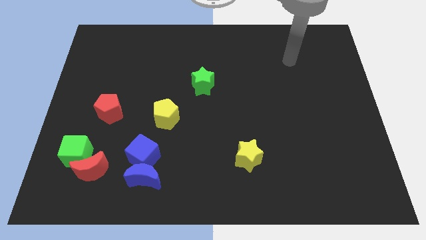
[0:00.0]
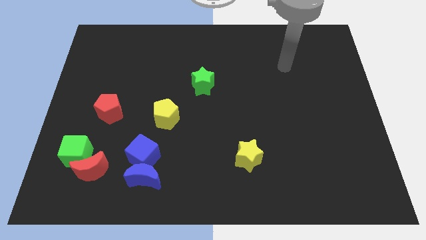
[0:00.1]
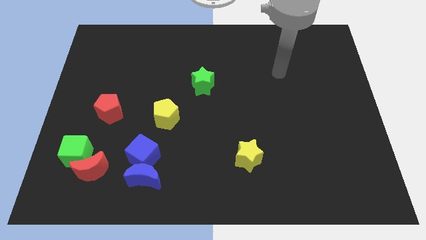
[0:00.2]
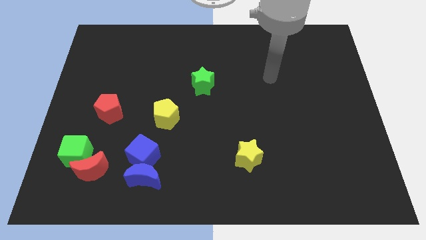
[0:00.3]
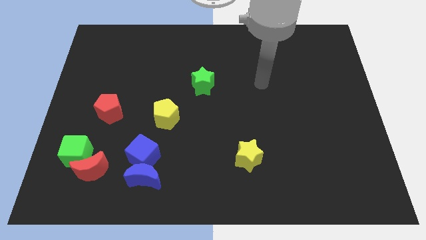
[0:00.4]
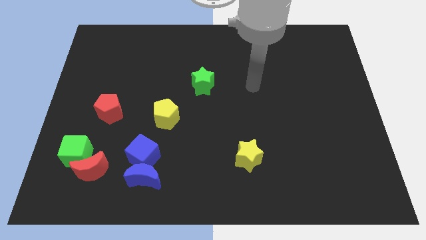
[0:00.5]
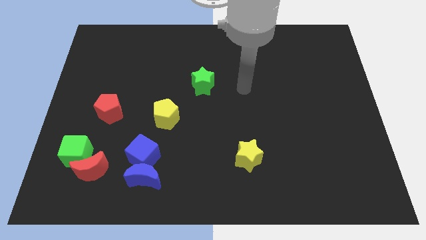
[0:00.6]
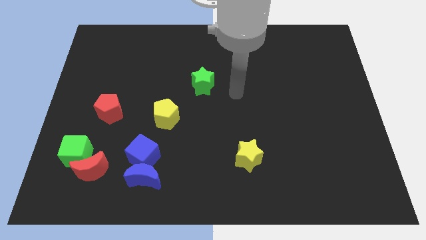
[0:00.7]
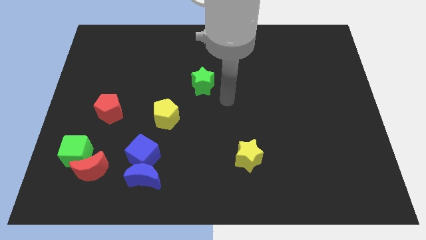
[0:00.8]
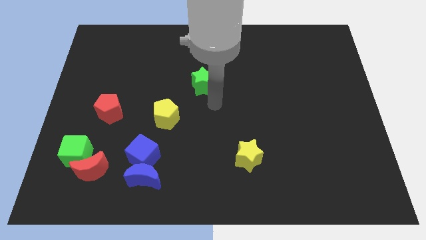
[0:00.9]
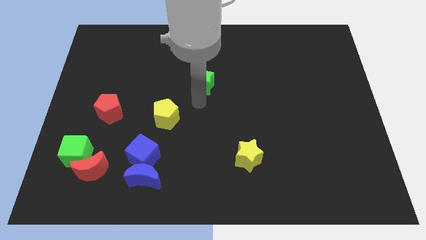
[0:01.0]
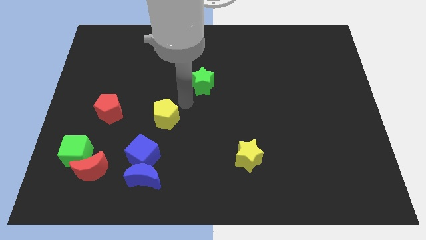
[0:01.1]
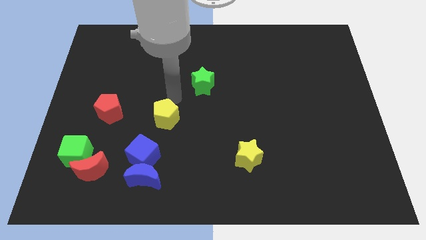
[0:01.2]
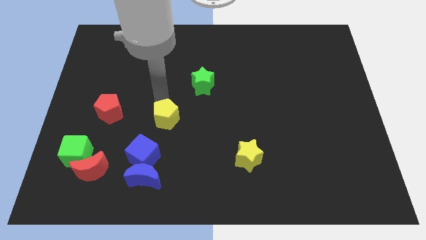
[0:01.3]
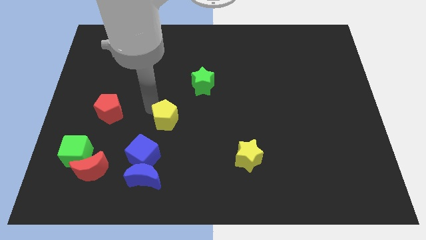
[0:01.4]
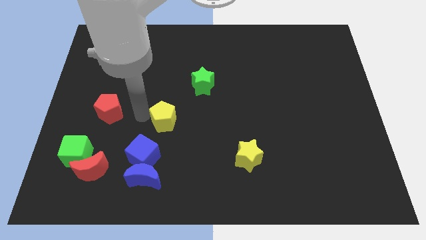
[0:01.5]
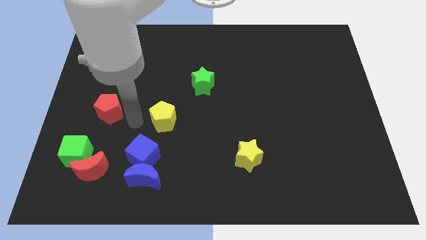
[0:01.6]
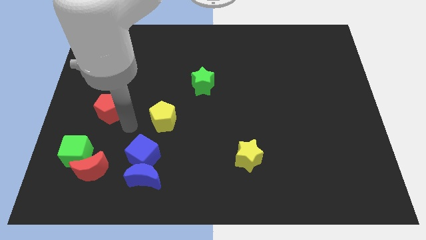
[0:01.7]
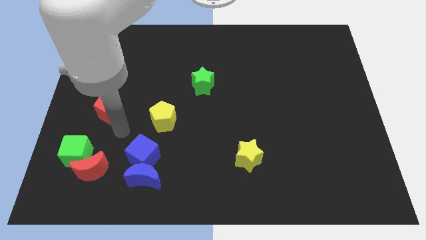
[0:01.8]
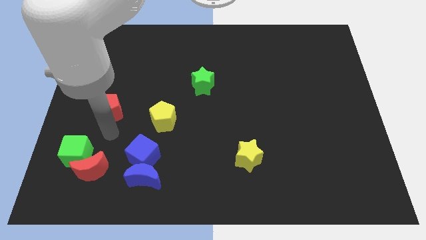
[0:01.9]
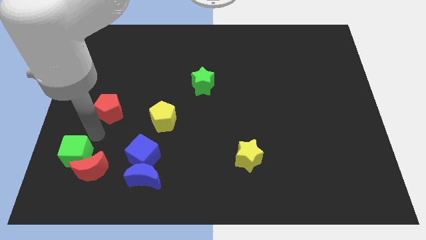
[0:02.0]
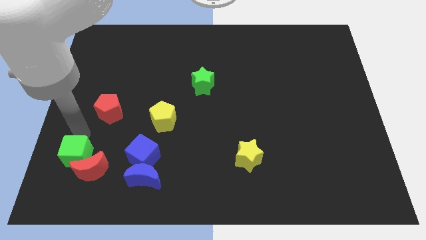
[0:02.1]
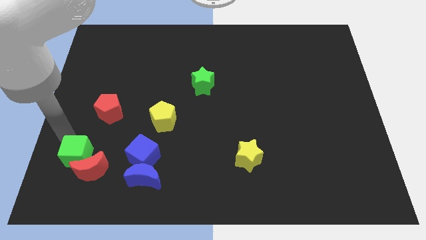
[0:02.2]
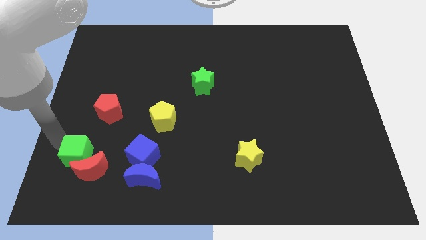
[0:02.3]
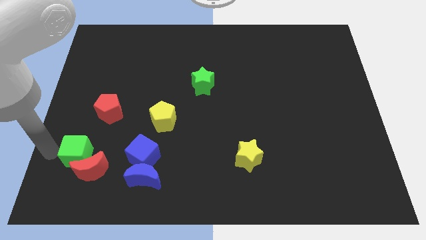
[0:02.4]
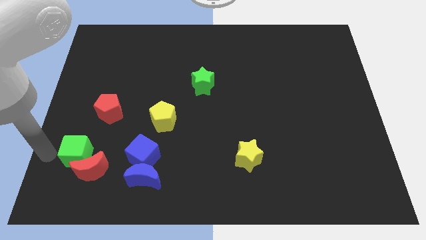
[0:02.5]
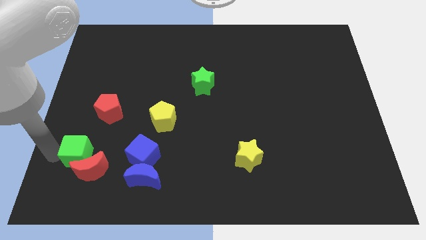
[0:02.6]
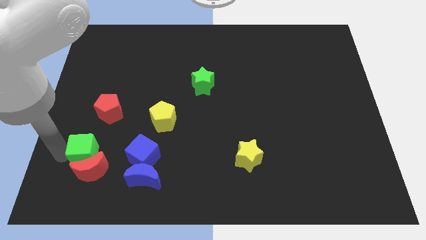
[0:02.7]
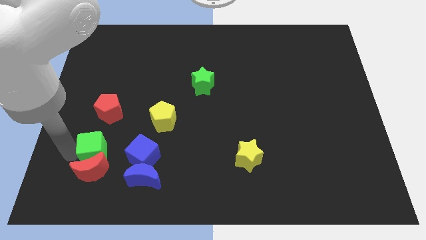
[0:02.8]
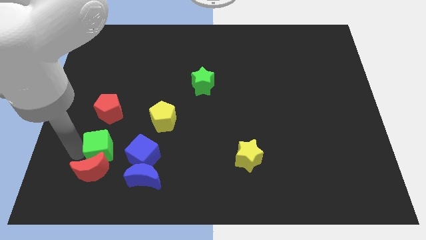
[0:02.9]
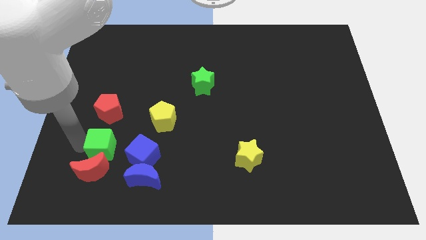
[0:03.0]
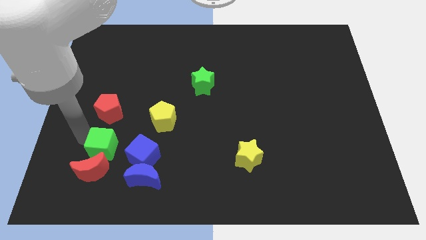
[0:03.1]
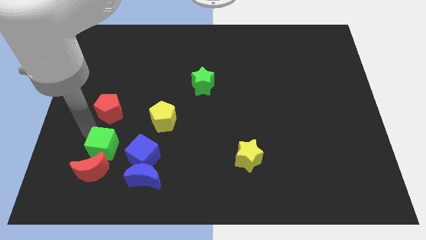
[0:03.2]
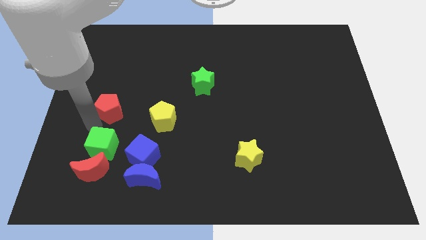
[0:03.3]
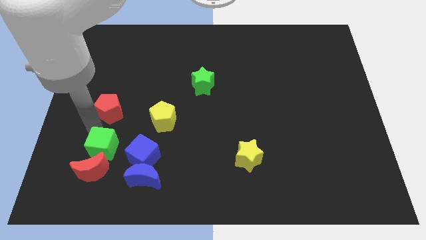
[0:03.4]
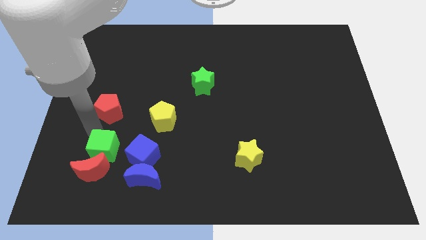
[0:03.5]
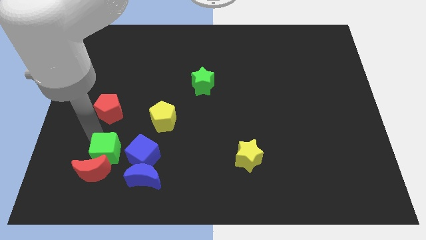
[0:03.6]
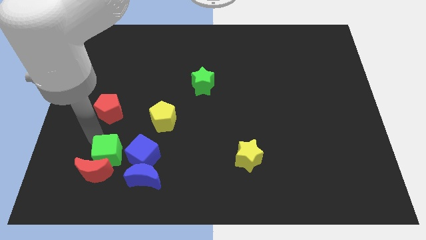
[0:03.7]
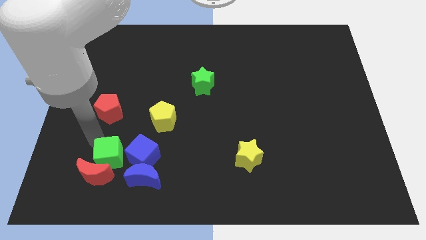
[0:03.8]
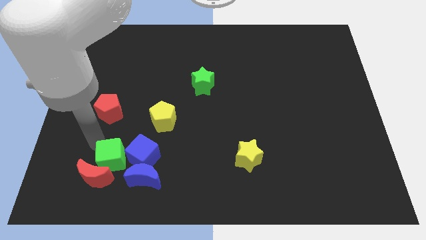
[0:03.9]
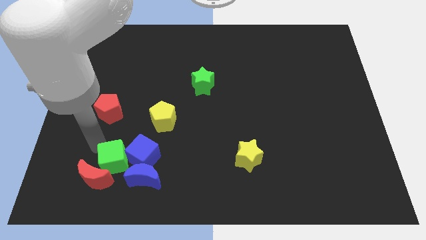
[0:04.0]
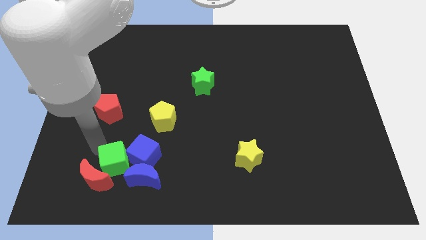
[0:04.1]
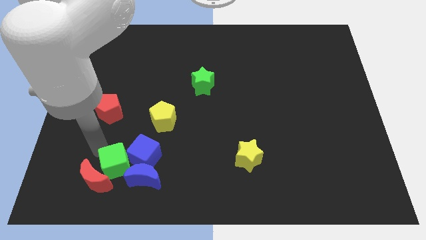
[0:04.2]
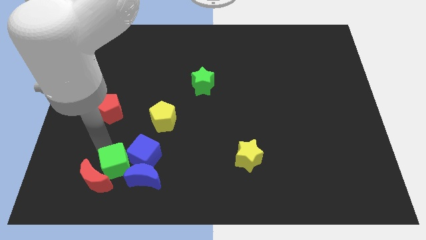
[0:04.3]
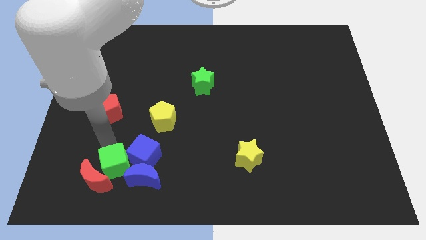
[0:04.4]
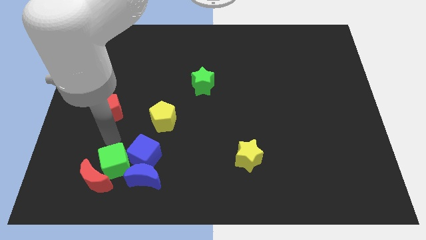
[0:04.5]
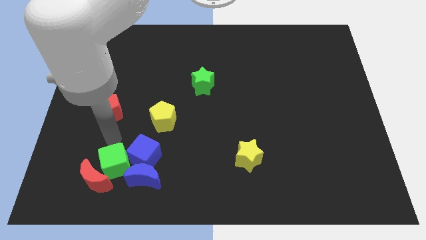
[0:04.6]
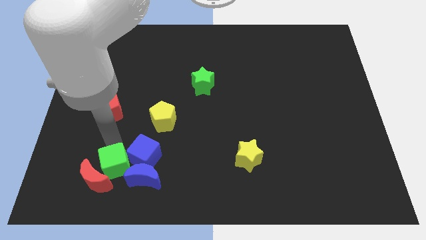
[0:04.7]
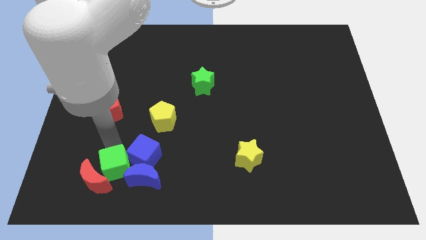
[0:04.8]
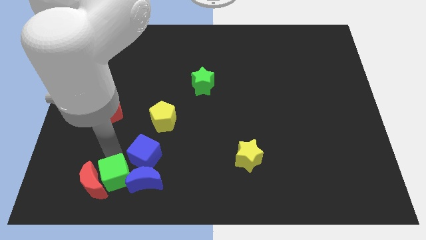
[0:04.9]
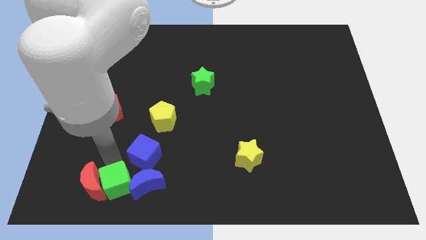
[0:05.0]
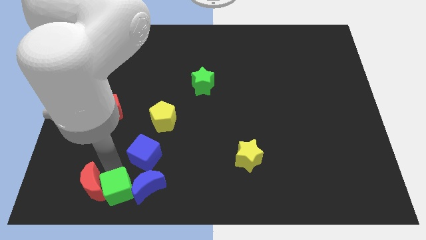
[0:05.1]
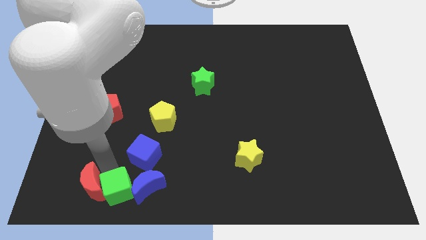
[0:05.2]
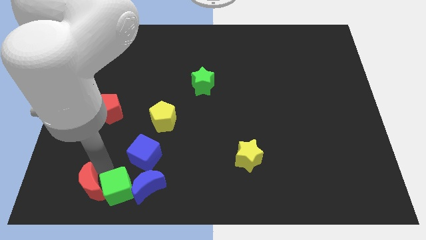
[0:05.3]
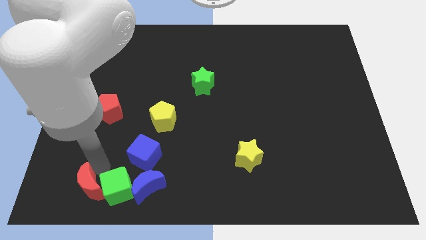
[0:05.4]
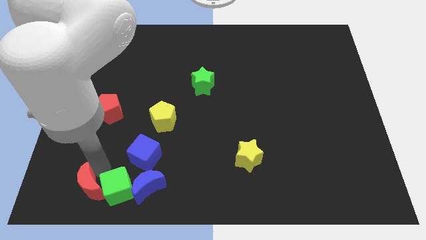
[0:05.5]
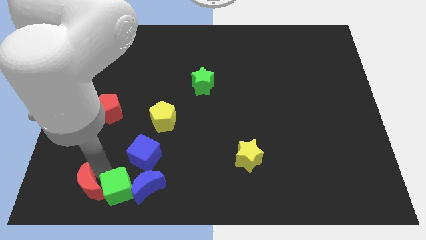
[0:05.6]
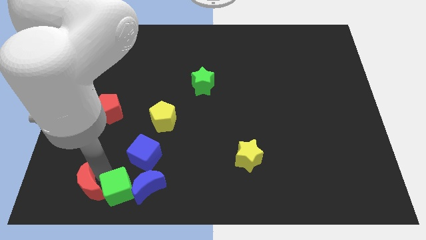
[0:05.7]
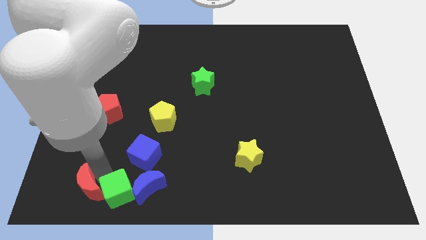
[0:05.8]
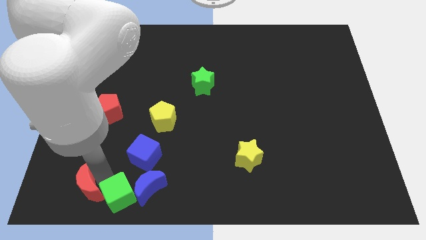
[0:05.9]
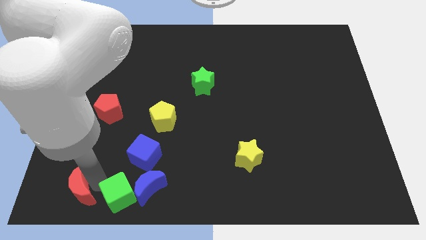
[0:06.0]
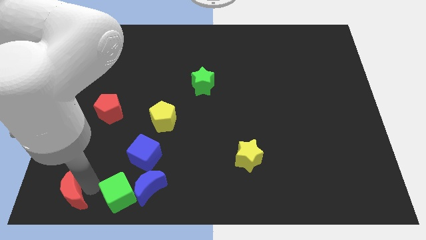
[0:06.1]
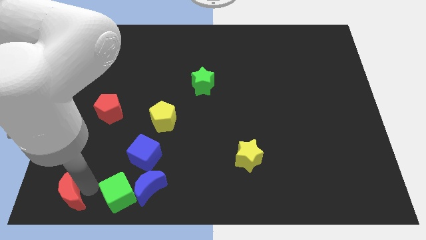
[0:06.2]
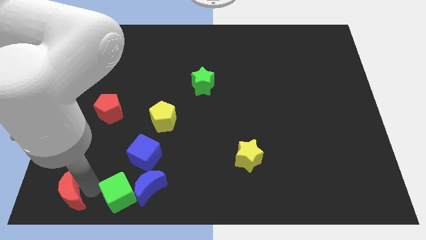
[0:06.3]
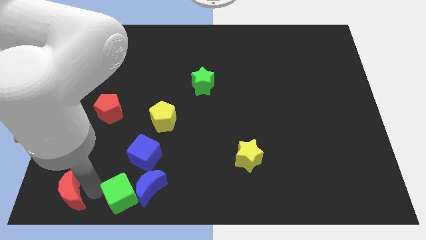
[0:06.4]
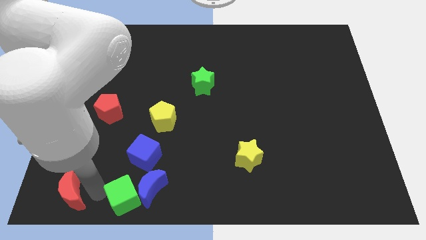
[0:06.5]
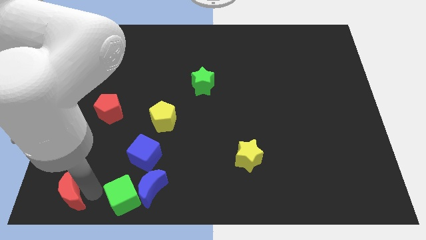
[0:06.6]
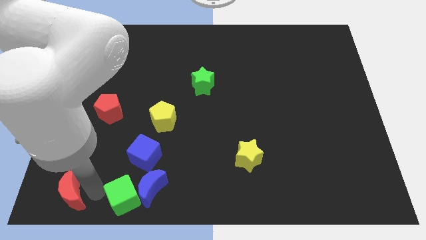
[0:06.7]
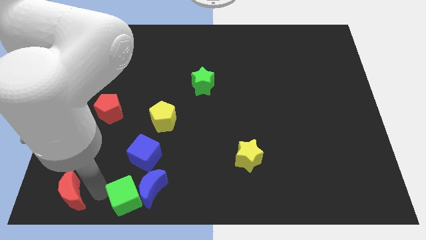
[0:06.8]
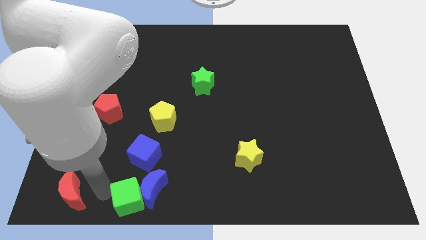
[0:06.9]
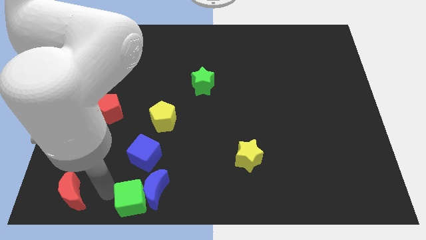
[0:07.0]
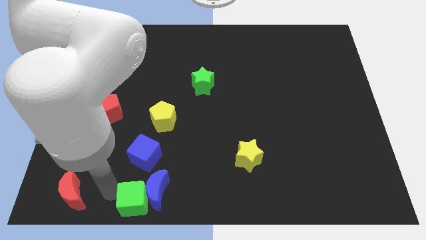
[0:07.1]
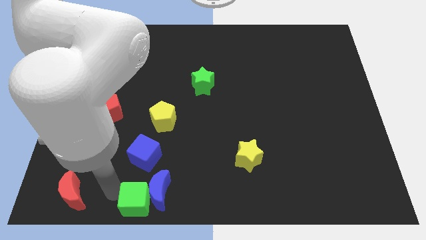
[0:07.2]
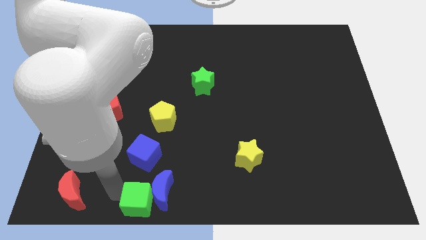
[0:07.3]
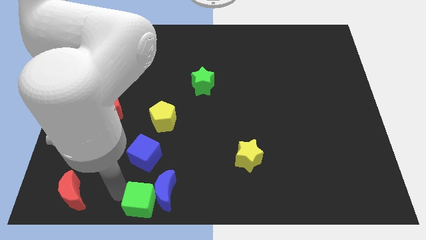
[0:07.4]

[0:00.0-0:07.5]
put the green cube to the bottom side
